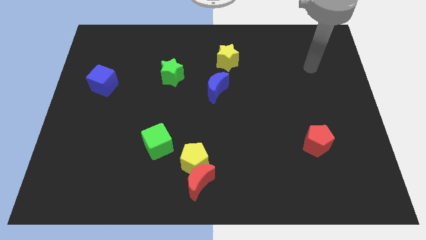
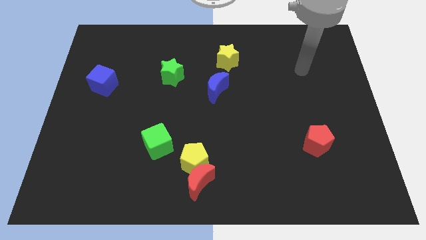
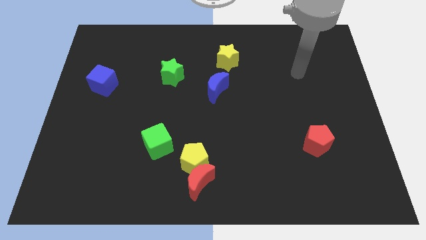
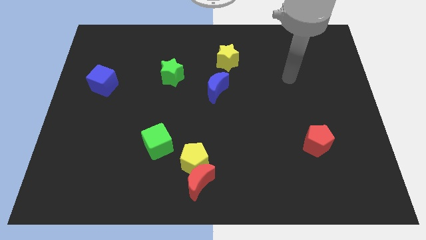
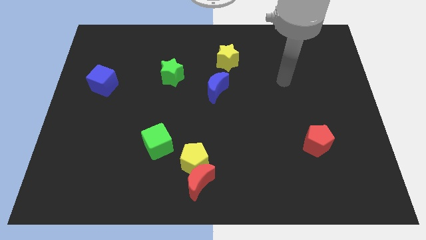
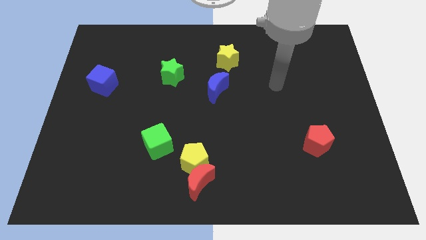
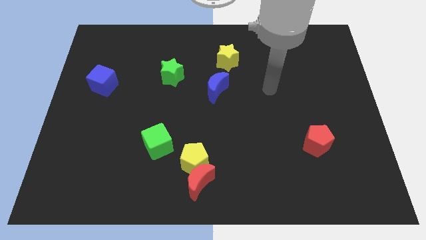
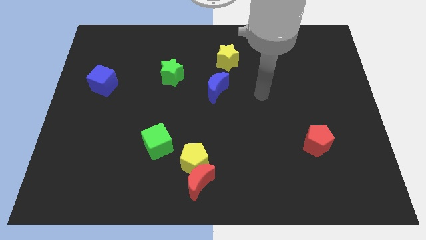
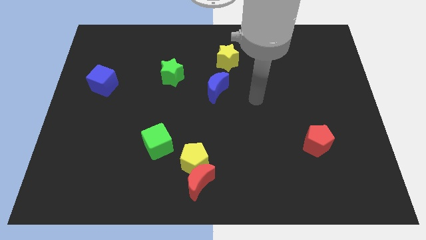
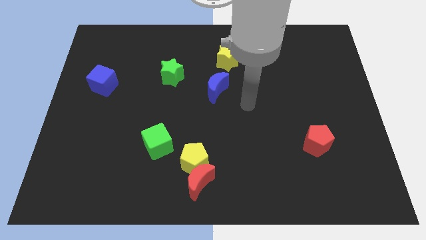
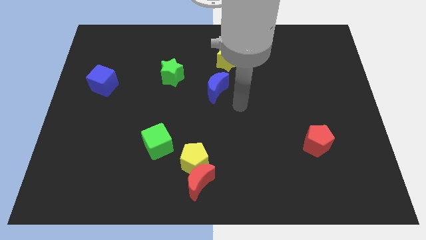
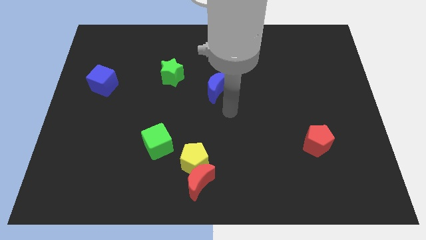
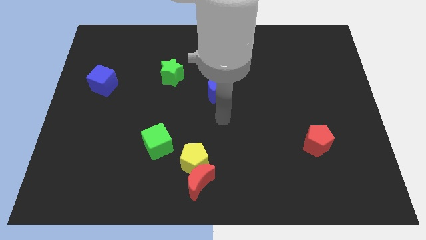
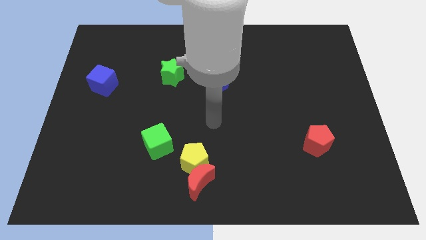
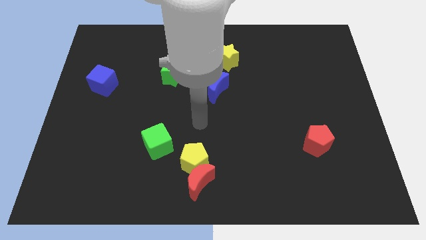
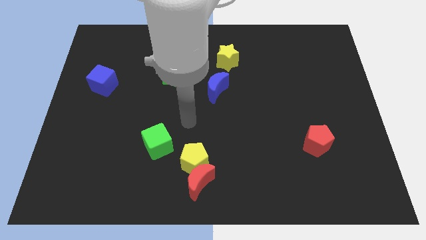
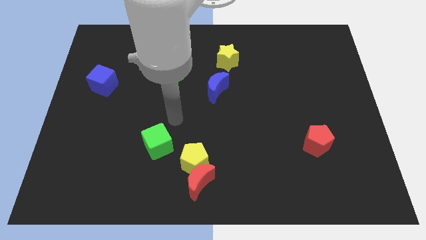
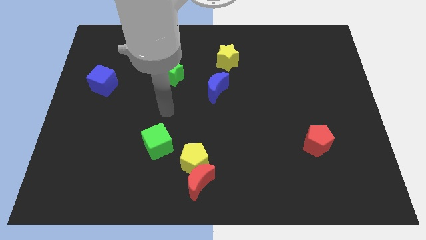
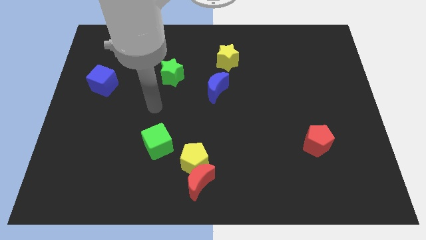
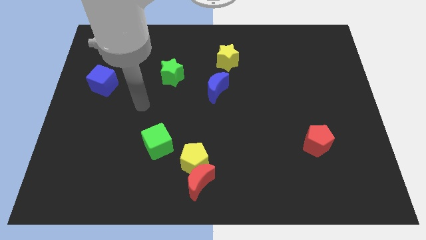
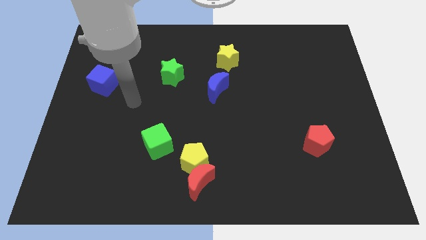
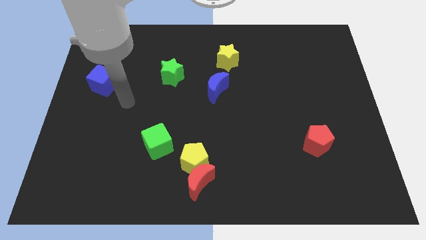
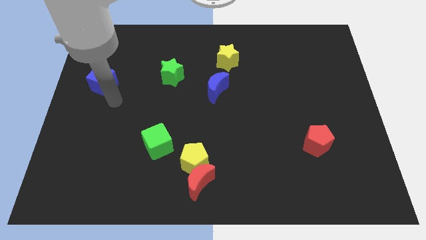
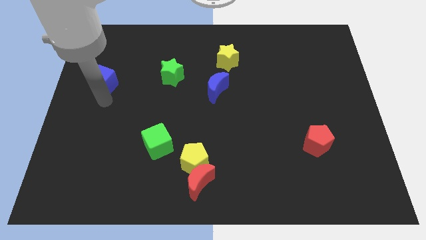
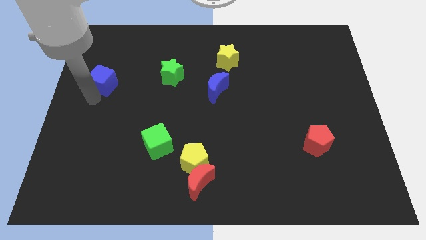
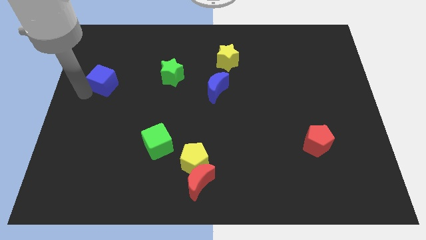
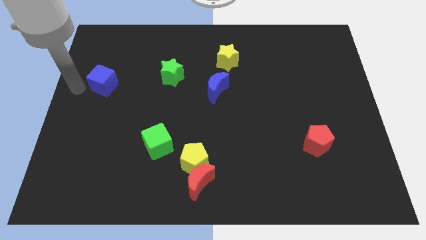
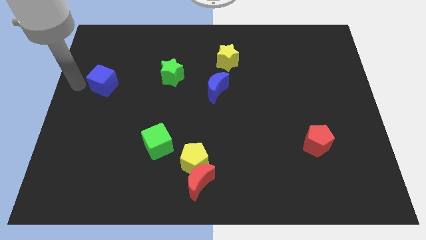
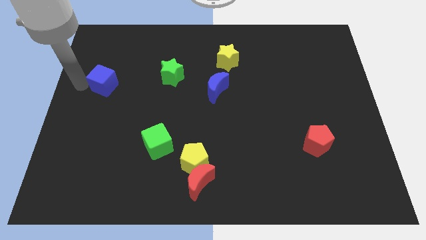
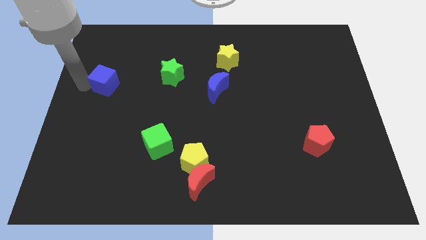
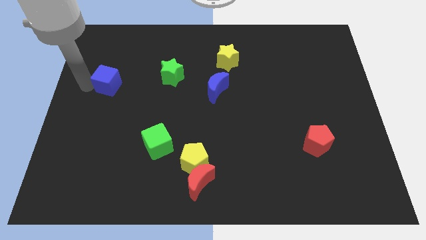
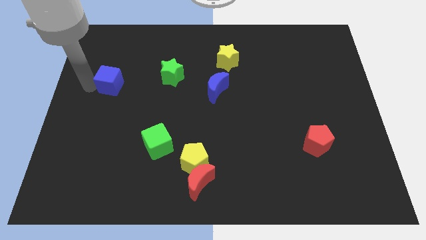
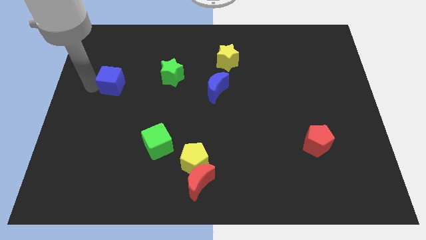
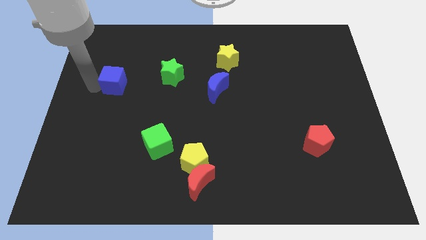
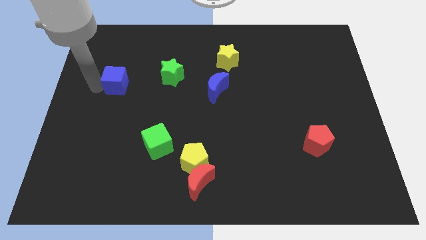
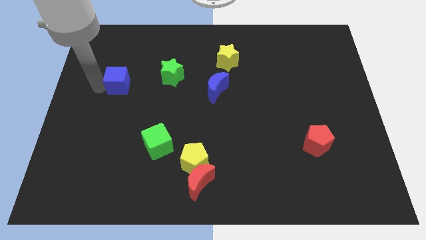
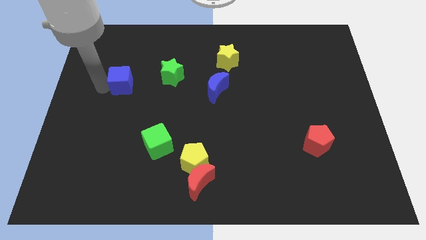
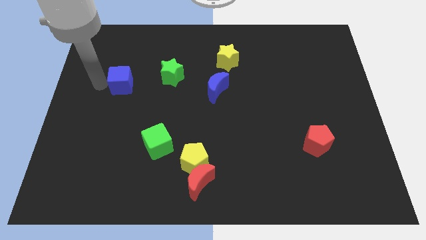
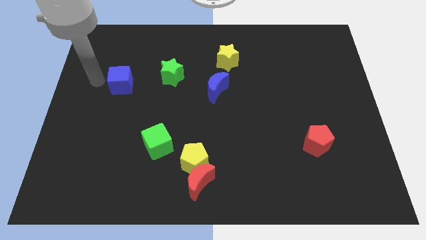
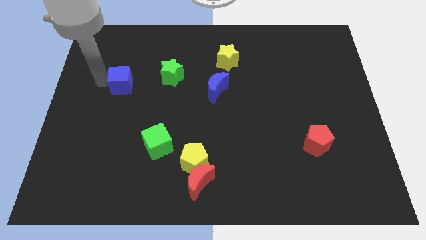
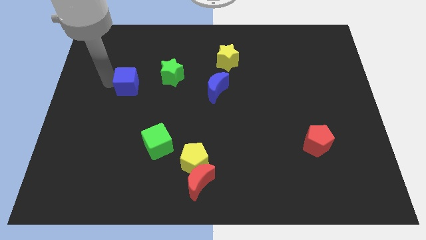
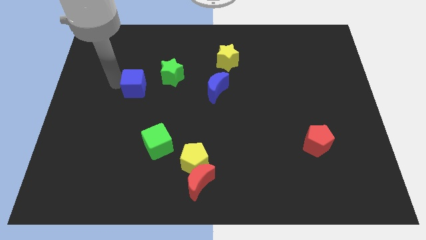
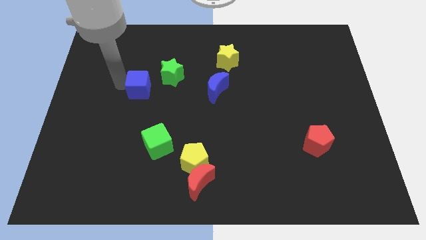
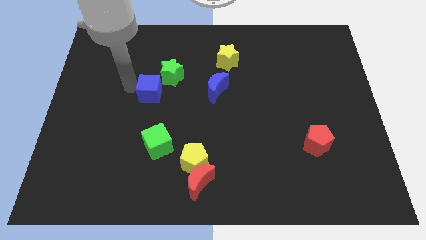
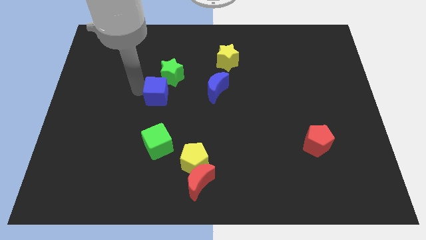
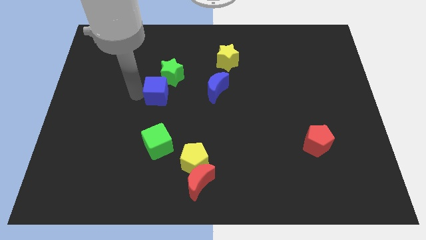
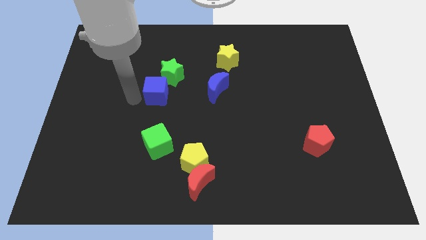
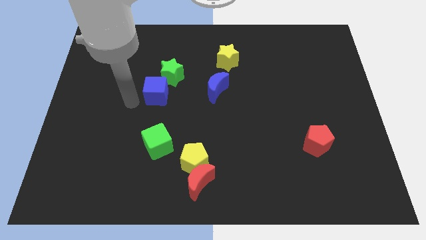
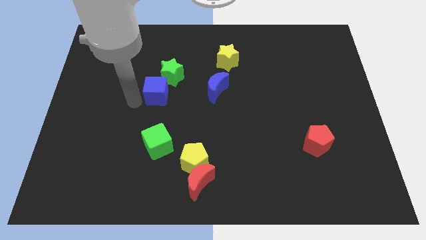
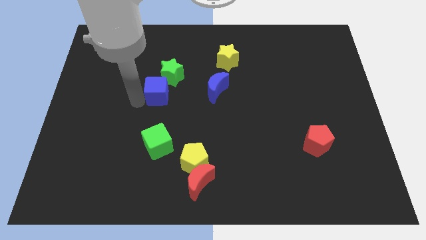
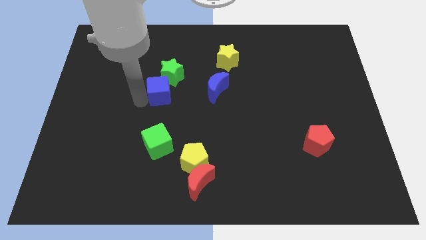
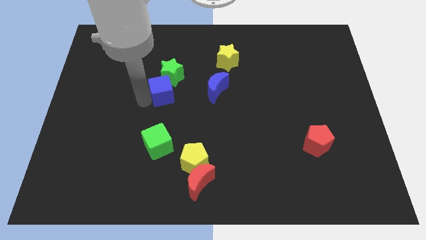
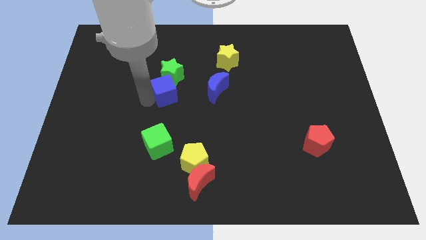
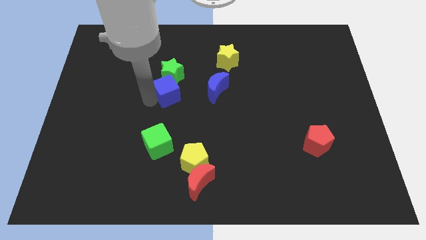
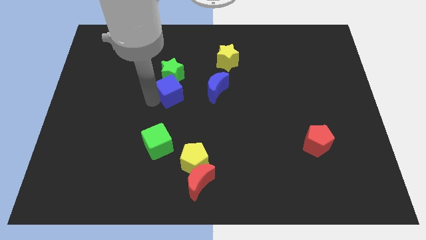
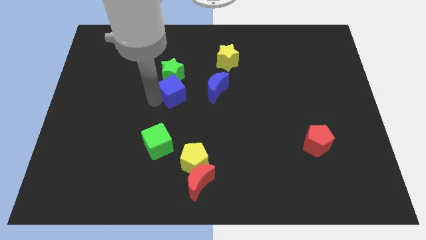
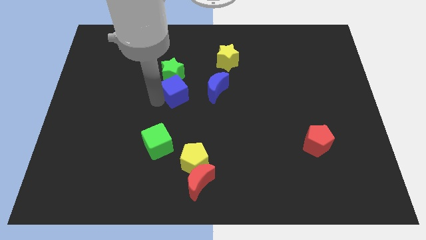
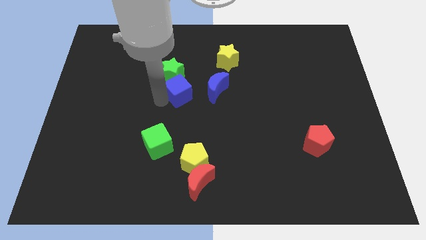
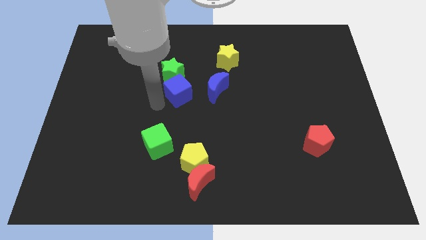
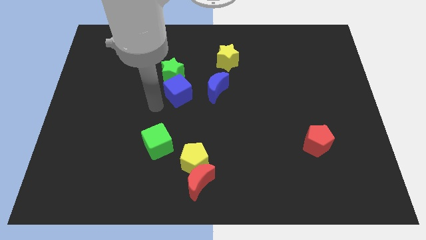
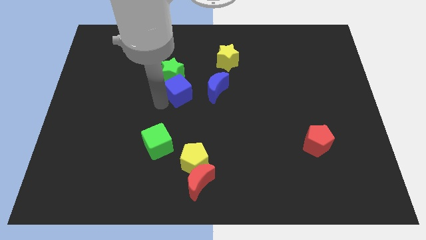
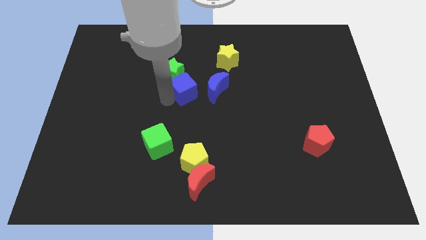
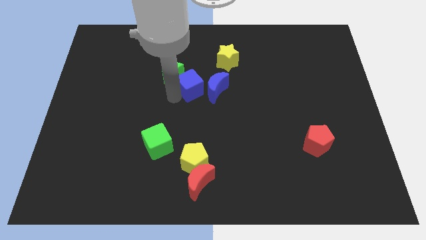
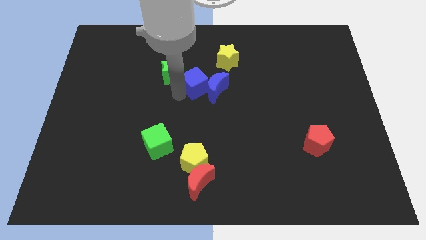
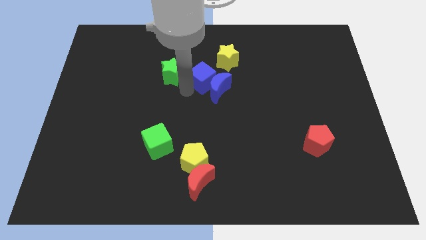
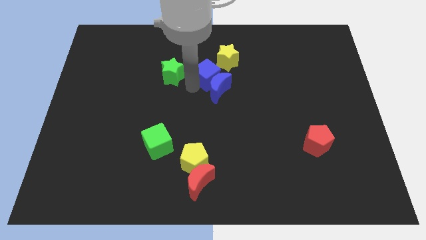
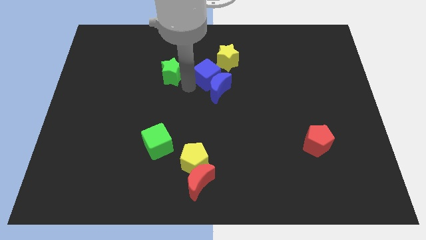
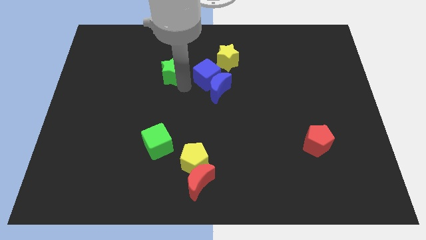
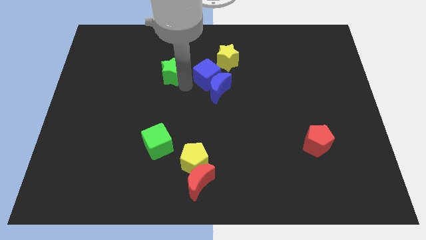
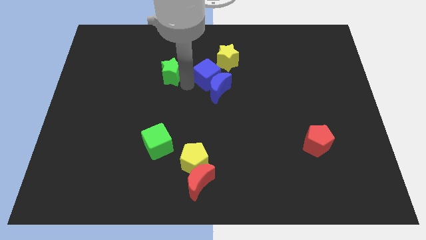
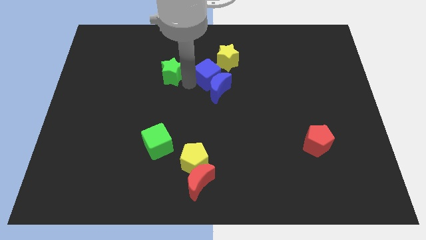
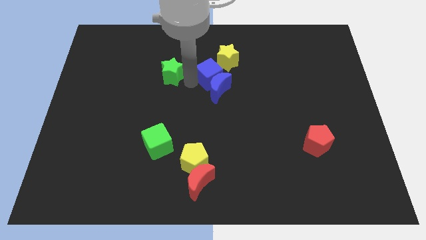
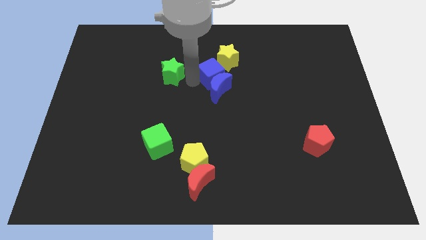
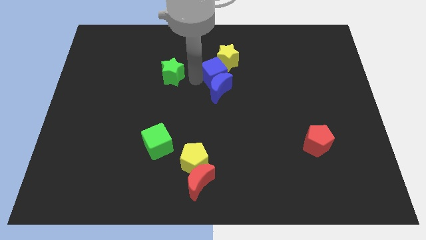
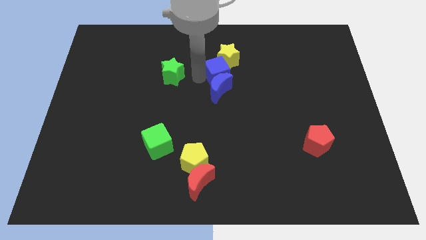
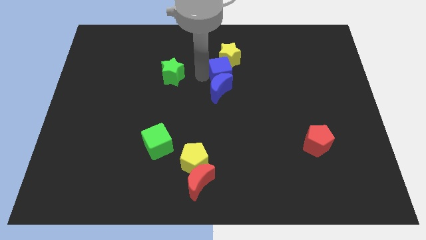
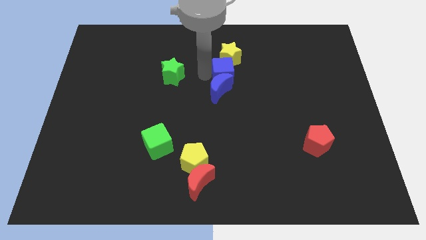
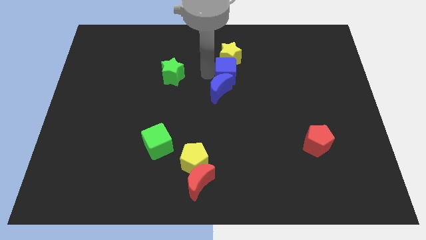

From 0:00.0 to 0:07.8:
put the blue cube to the bottom right side of the yellow star

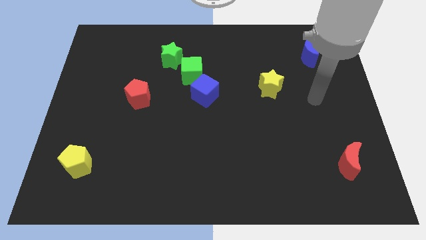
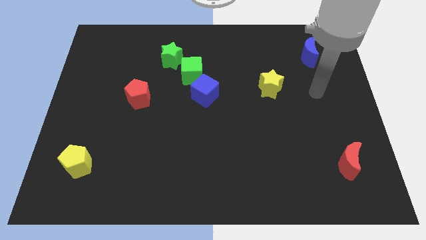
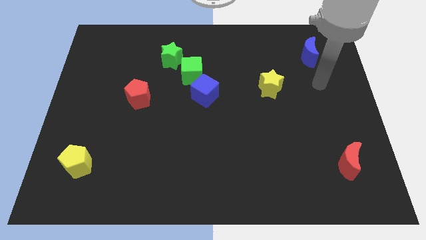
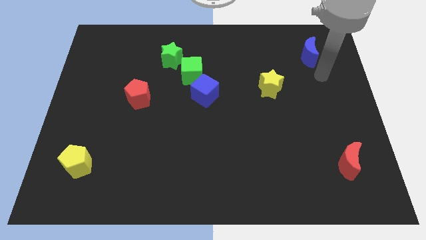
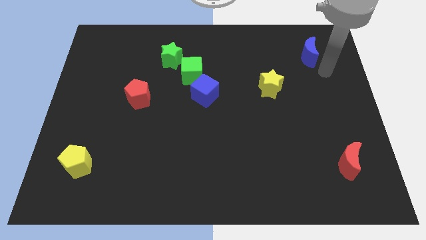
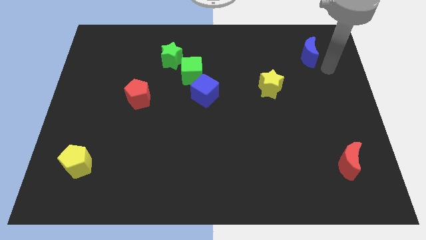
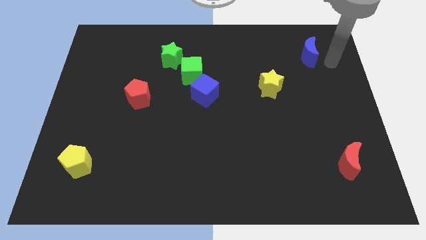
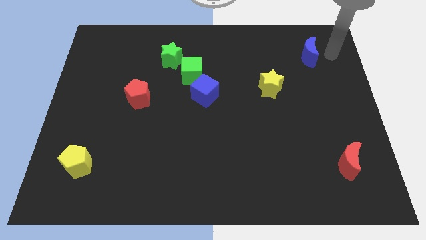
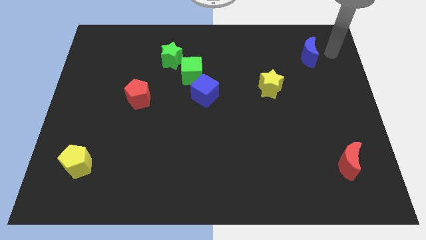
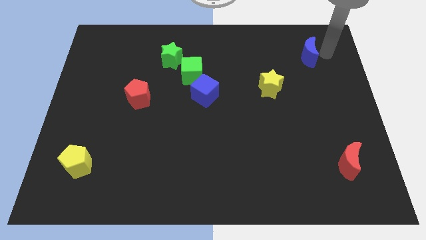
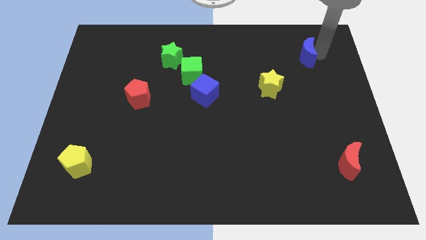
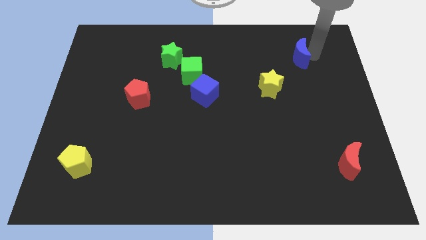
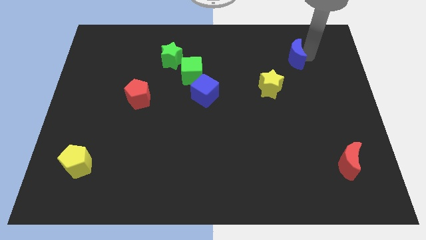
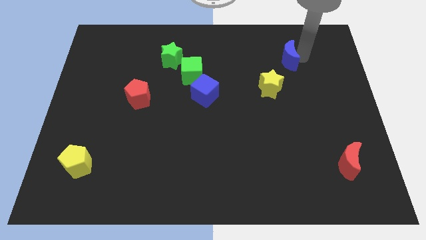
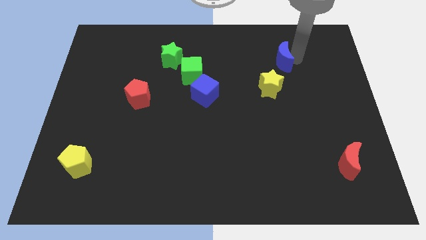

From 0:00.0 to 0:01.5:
push the blue moon above the yellow star
